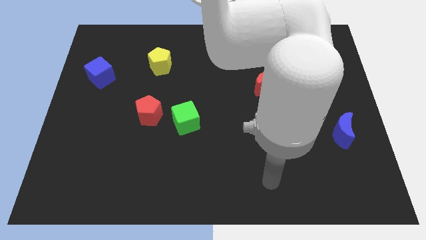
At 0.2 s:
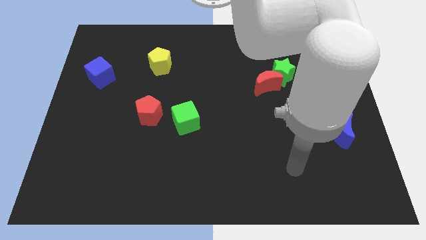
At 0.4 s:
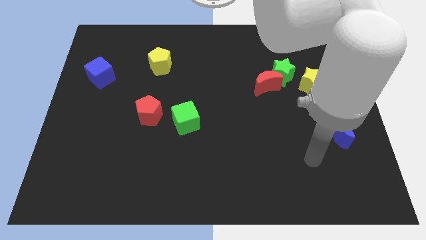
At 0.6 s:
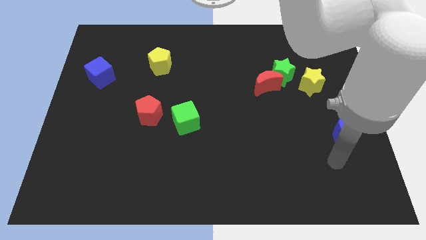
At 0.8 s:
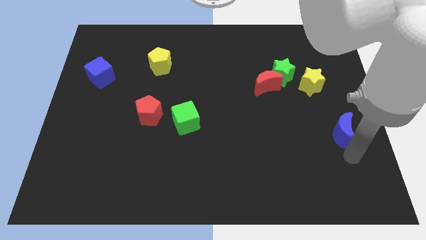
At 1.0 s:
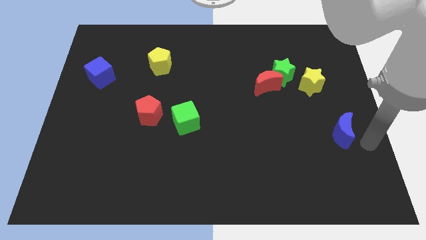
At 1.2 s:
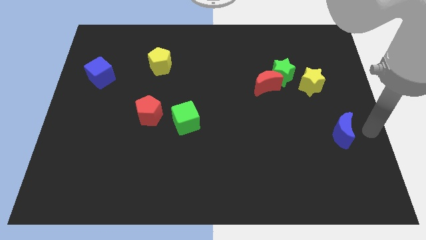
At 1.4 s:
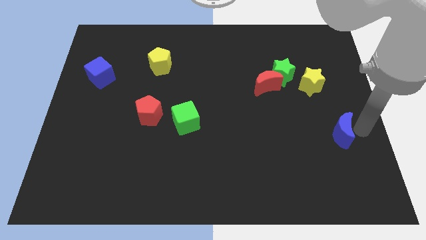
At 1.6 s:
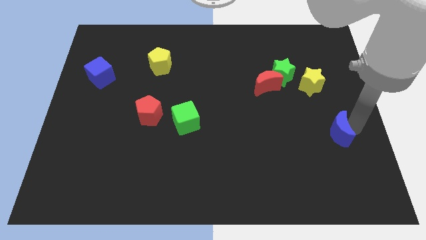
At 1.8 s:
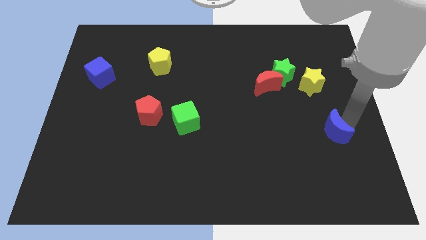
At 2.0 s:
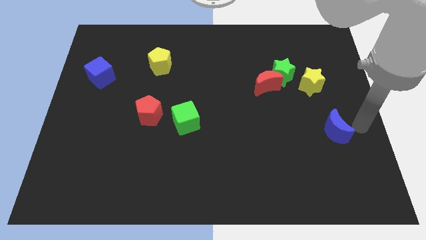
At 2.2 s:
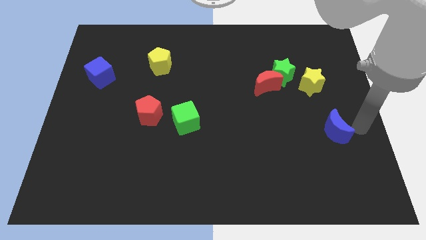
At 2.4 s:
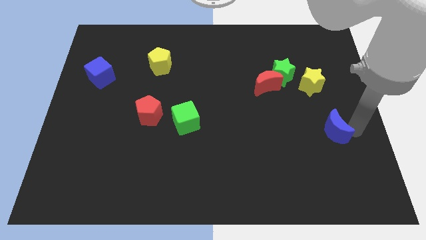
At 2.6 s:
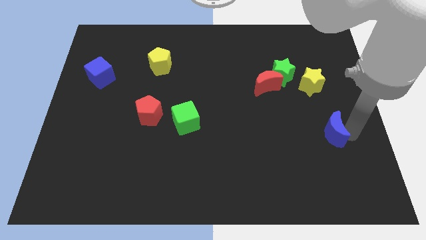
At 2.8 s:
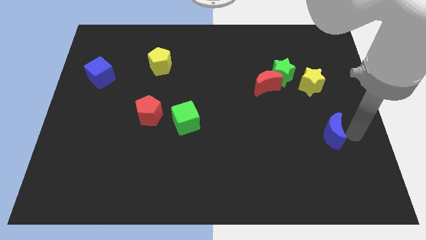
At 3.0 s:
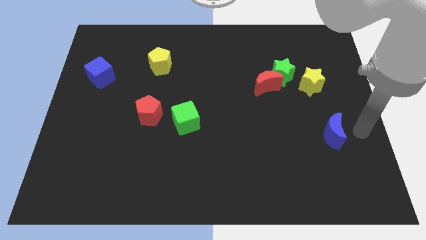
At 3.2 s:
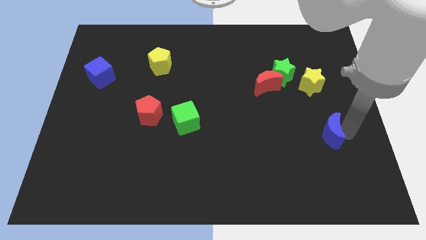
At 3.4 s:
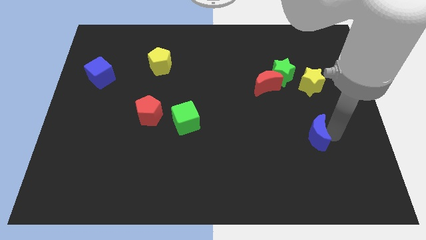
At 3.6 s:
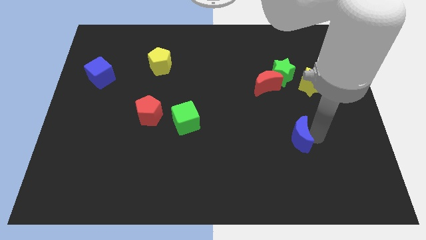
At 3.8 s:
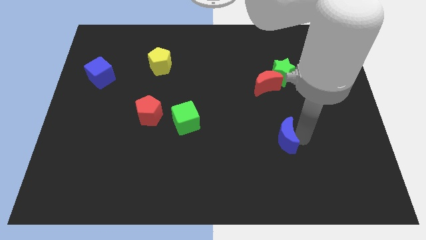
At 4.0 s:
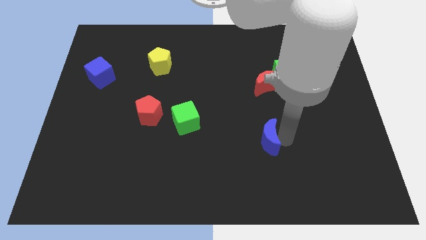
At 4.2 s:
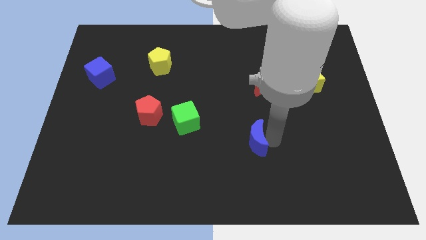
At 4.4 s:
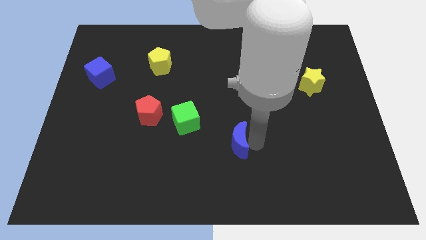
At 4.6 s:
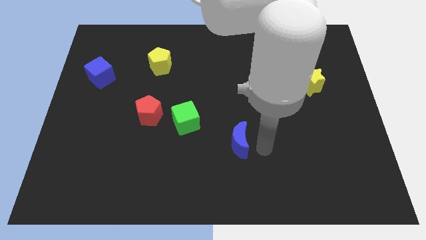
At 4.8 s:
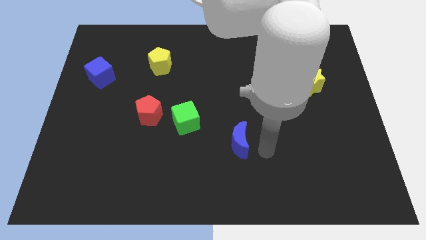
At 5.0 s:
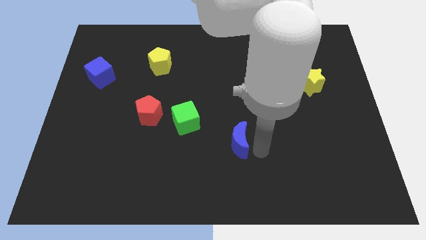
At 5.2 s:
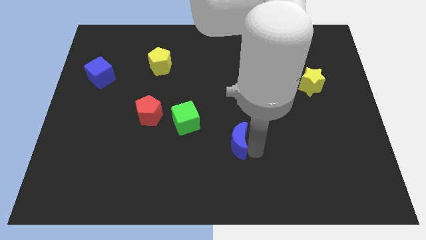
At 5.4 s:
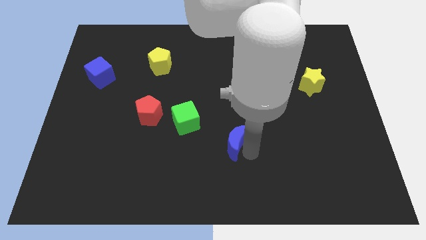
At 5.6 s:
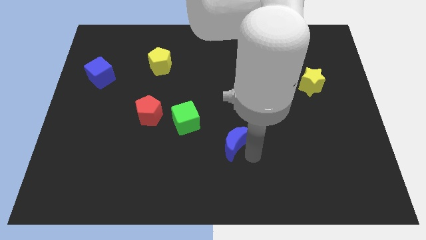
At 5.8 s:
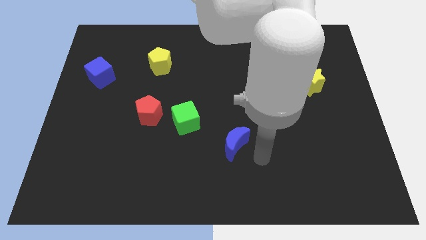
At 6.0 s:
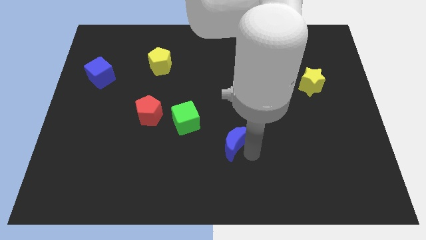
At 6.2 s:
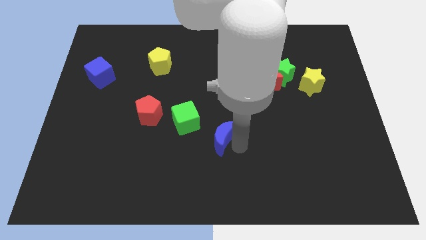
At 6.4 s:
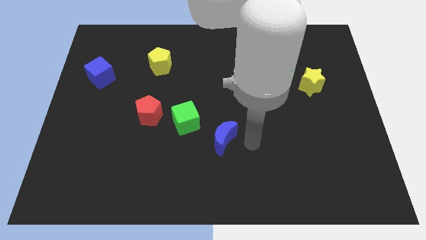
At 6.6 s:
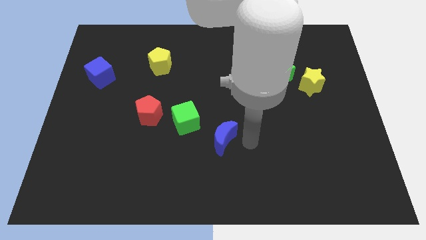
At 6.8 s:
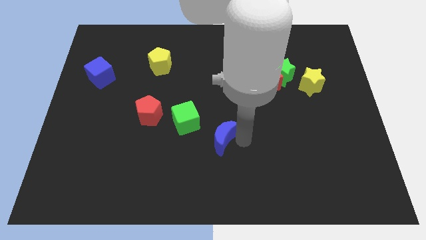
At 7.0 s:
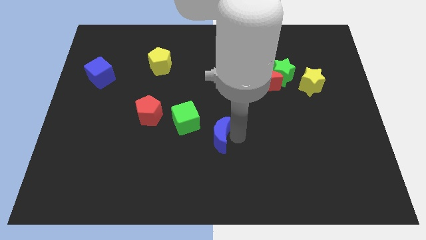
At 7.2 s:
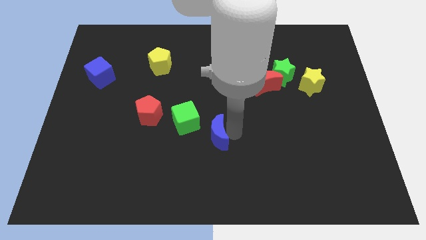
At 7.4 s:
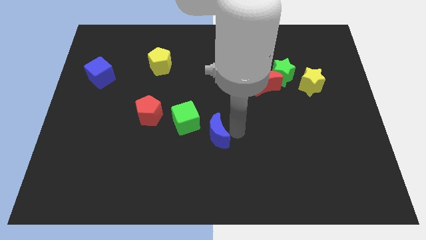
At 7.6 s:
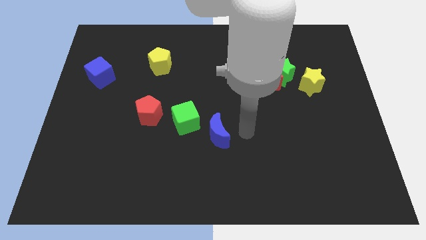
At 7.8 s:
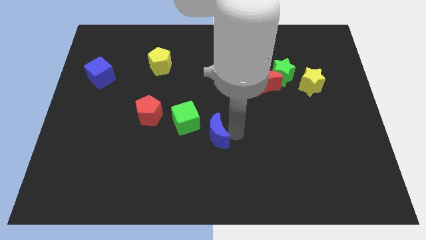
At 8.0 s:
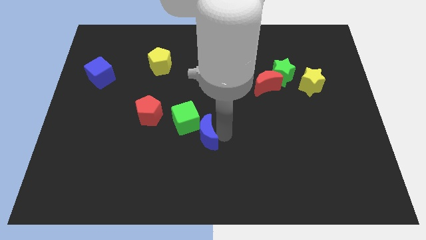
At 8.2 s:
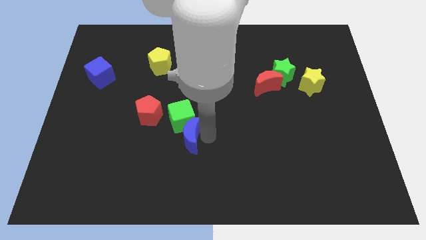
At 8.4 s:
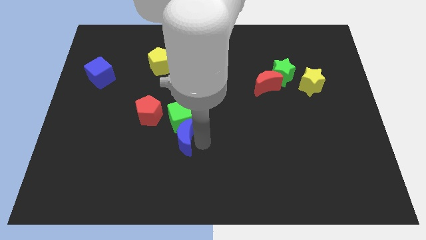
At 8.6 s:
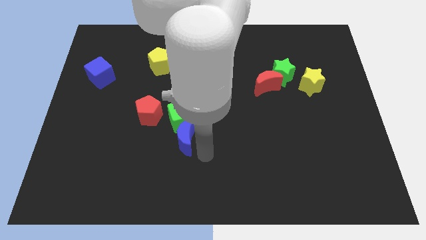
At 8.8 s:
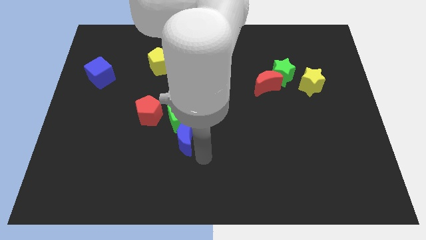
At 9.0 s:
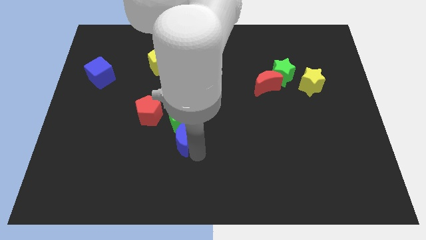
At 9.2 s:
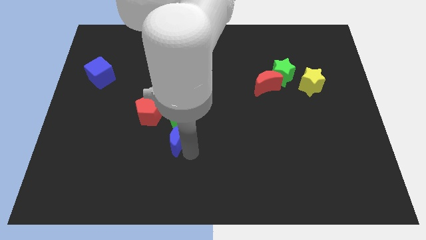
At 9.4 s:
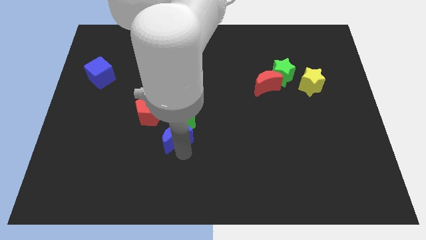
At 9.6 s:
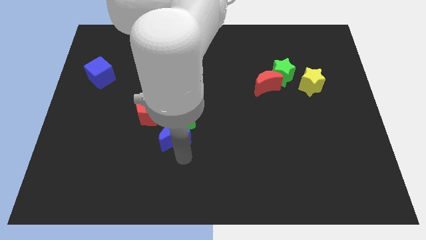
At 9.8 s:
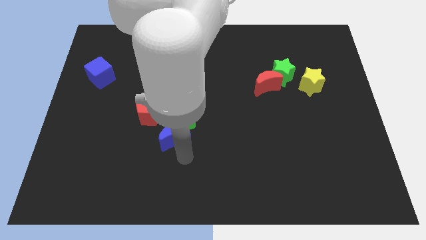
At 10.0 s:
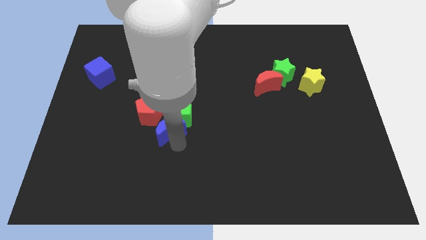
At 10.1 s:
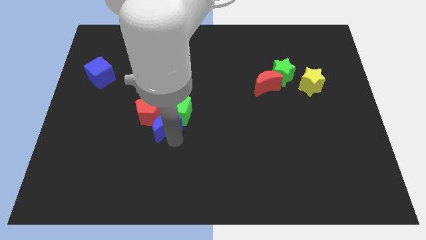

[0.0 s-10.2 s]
move the blue moon to the red pentagon

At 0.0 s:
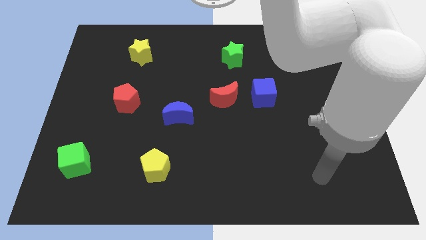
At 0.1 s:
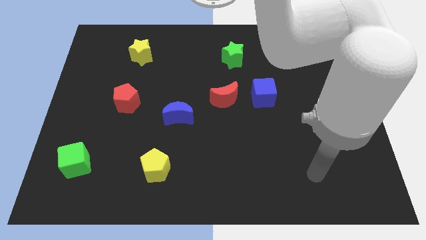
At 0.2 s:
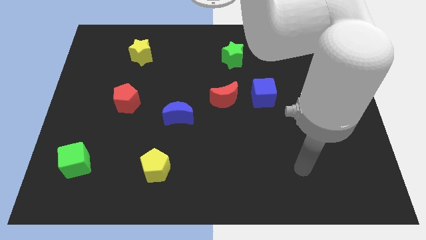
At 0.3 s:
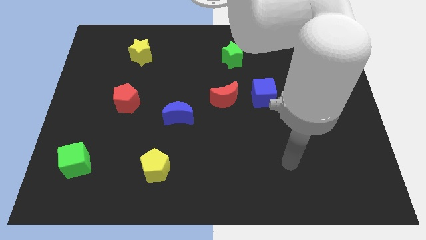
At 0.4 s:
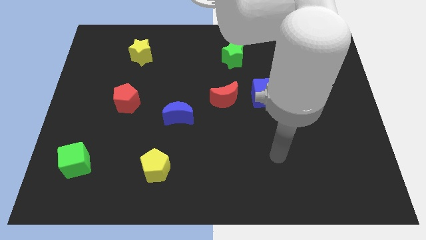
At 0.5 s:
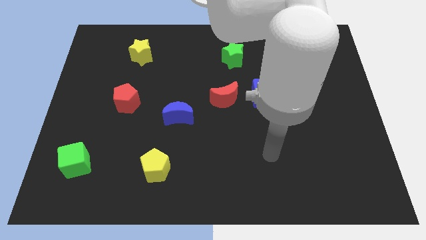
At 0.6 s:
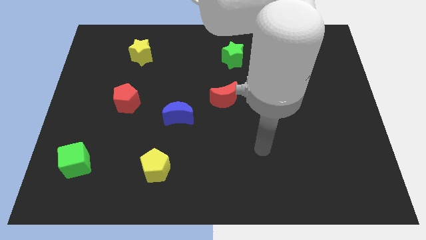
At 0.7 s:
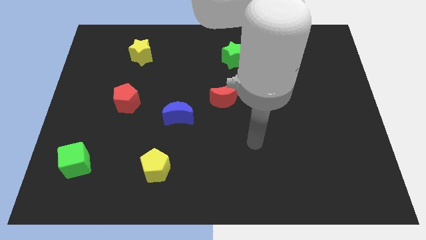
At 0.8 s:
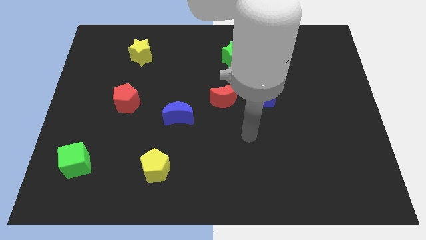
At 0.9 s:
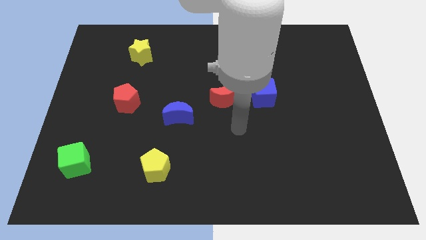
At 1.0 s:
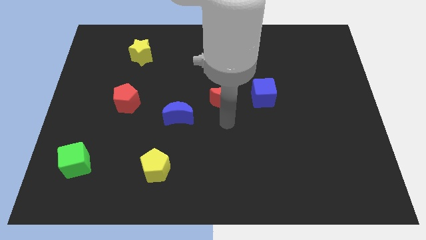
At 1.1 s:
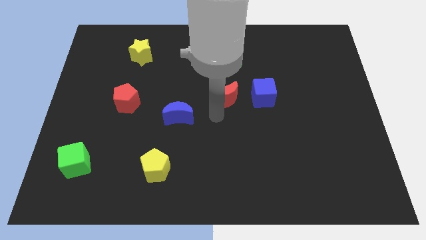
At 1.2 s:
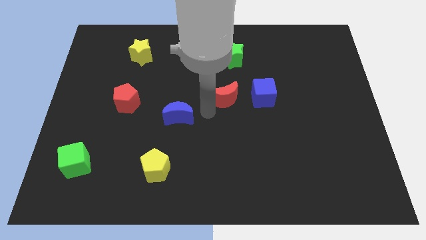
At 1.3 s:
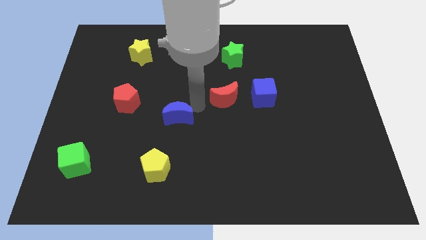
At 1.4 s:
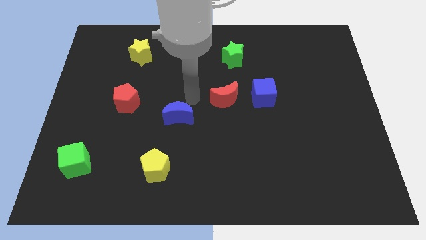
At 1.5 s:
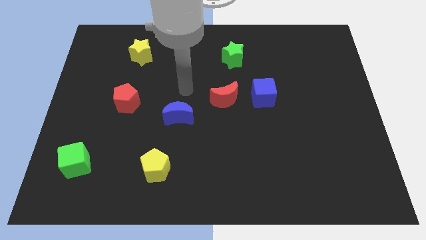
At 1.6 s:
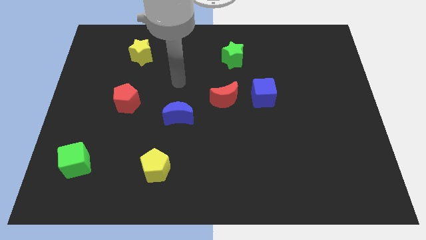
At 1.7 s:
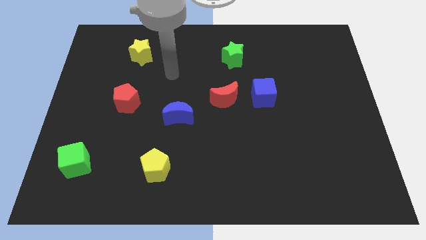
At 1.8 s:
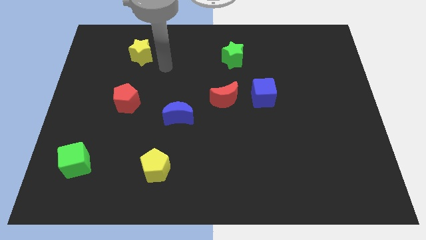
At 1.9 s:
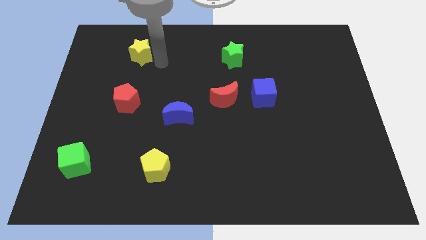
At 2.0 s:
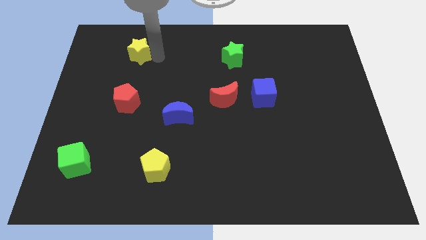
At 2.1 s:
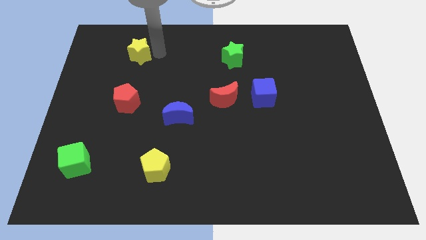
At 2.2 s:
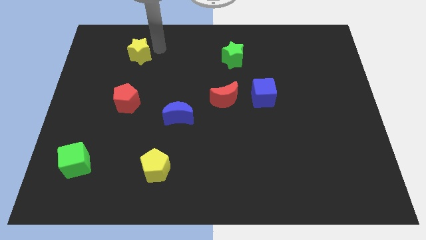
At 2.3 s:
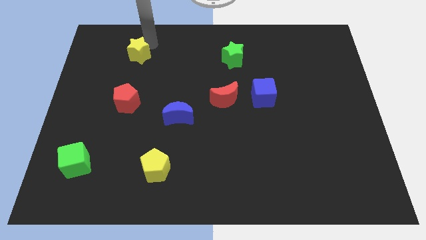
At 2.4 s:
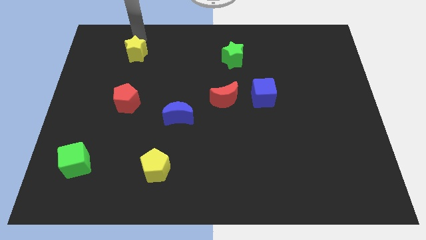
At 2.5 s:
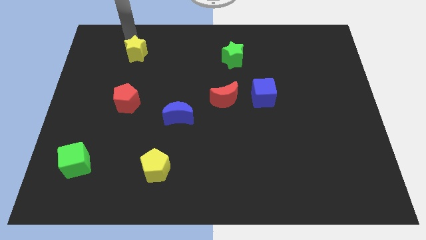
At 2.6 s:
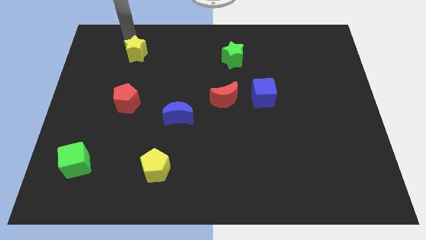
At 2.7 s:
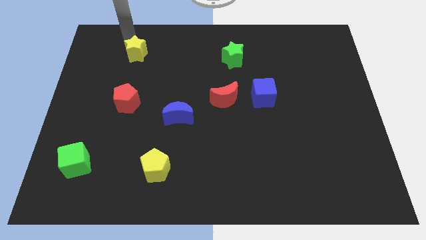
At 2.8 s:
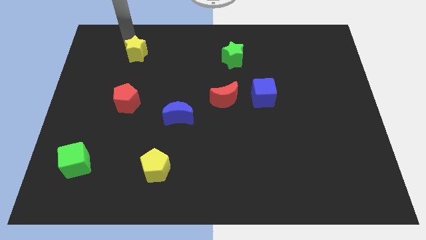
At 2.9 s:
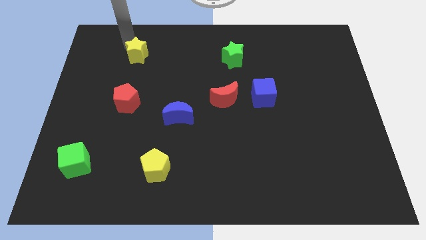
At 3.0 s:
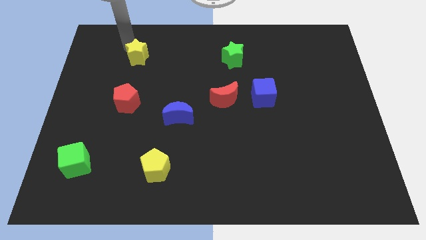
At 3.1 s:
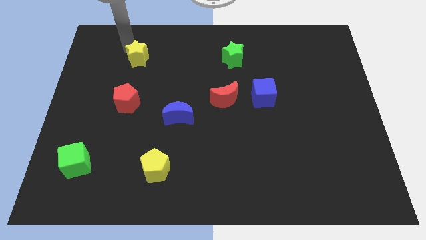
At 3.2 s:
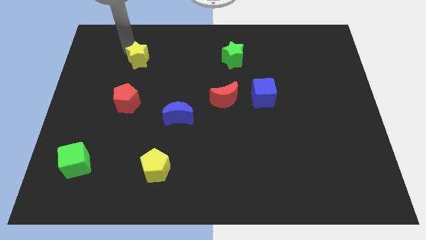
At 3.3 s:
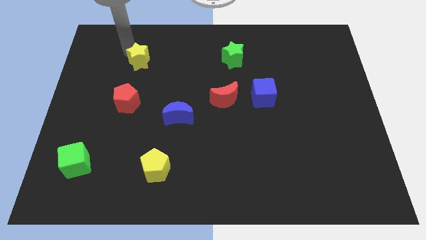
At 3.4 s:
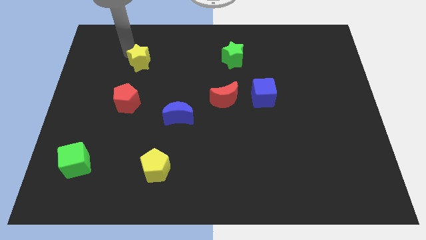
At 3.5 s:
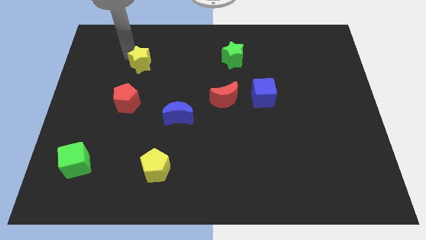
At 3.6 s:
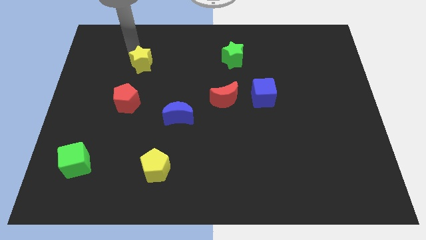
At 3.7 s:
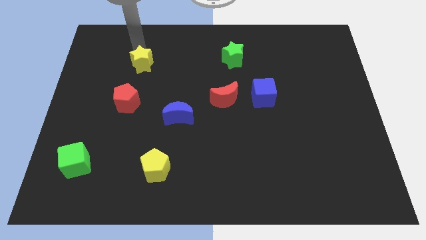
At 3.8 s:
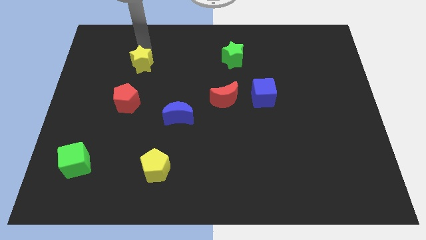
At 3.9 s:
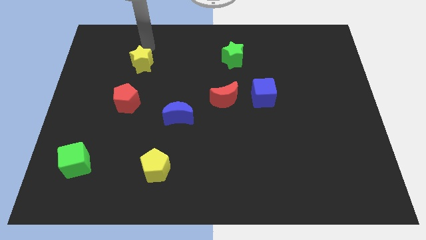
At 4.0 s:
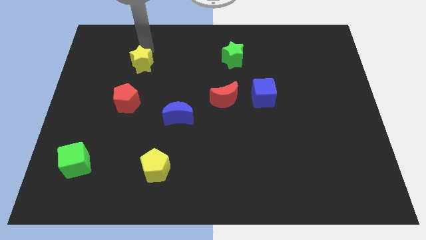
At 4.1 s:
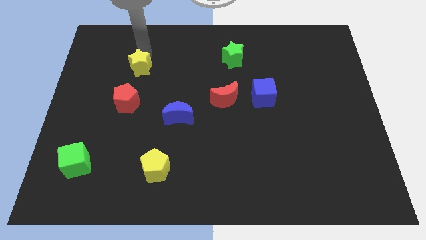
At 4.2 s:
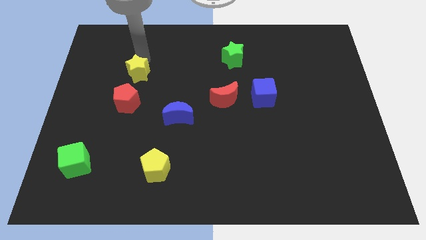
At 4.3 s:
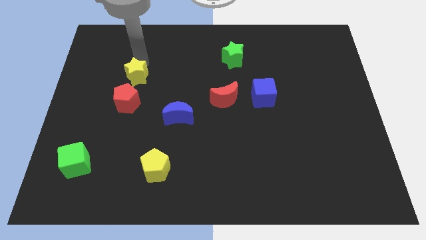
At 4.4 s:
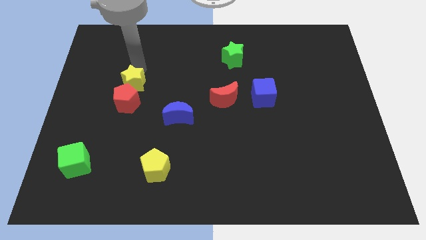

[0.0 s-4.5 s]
slide the yellow star next to the red pentagon
